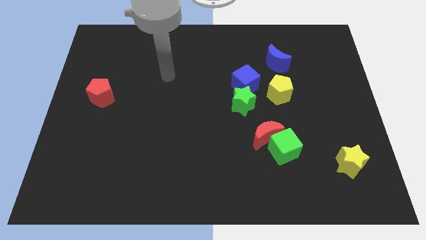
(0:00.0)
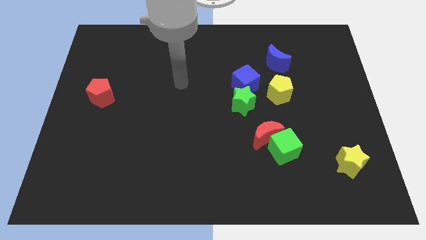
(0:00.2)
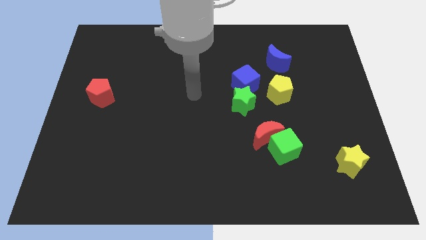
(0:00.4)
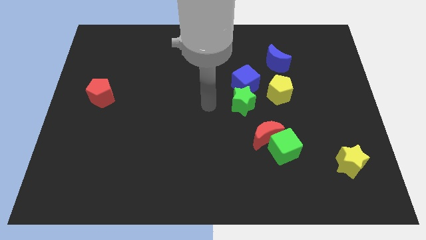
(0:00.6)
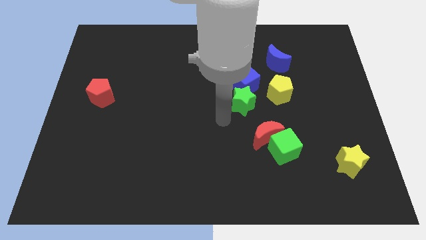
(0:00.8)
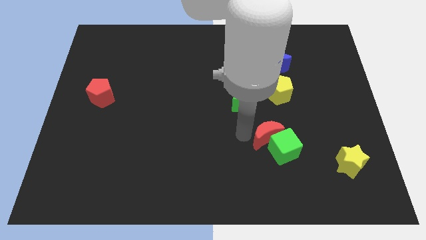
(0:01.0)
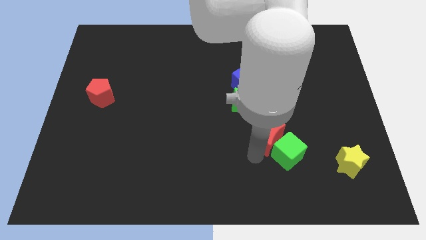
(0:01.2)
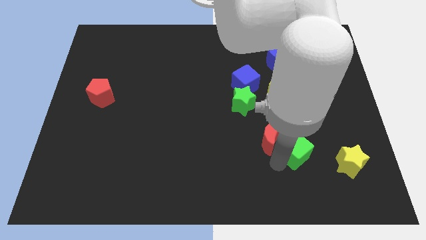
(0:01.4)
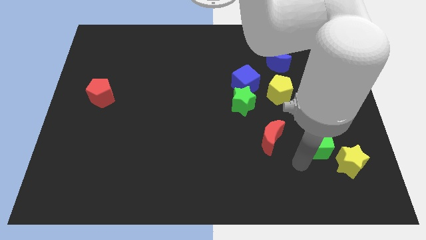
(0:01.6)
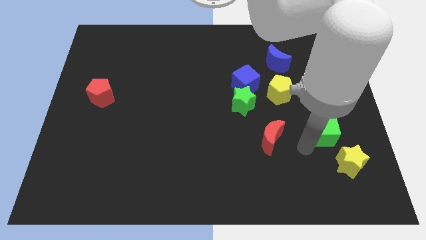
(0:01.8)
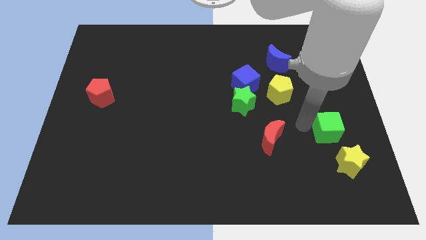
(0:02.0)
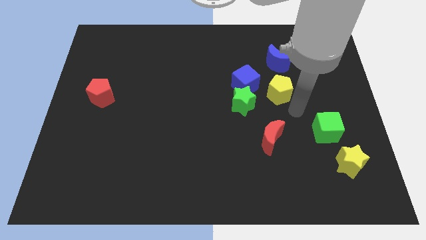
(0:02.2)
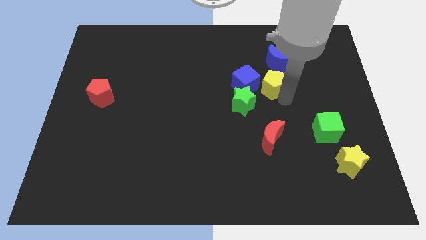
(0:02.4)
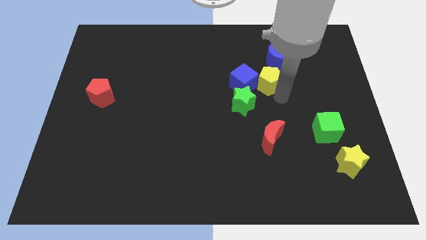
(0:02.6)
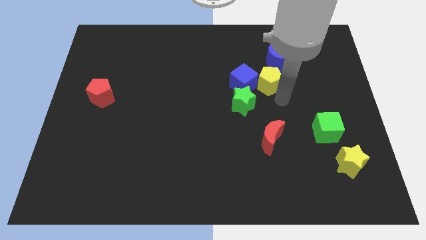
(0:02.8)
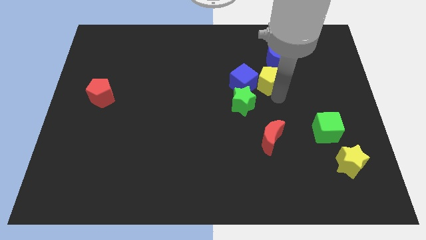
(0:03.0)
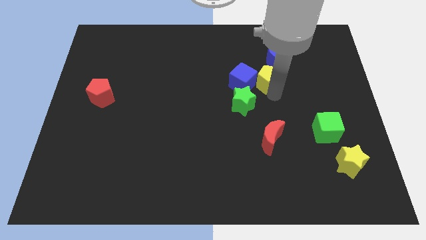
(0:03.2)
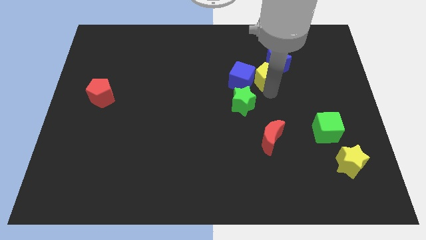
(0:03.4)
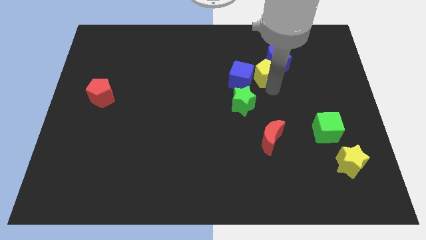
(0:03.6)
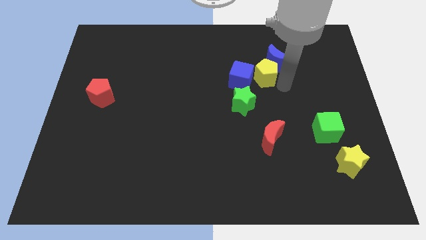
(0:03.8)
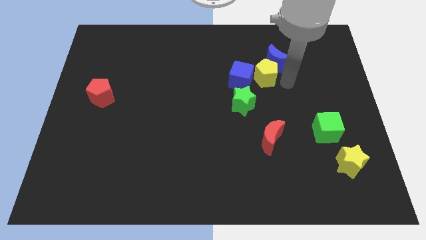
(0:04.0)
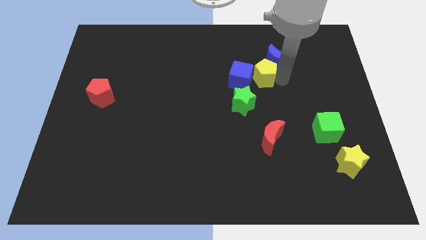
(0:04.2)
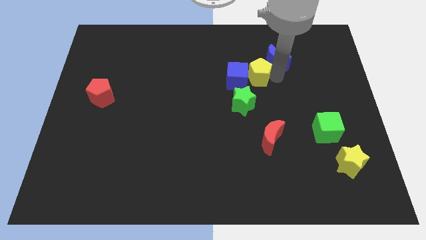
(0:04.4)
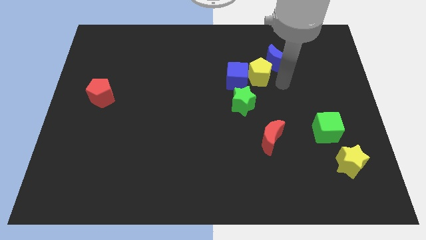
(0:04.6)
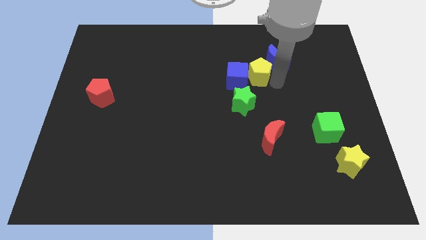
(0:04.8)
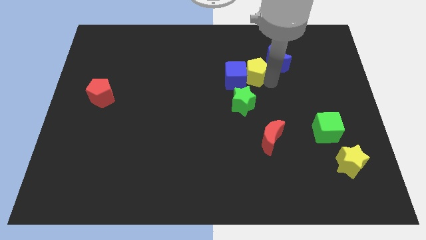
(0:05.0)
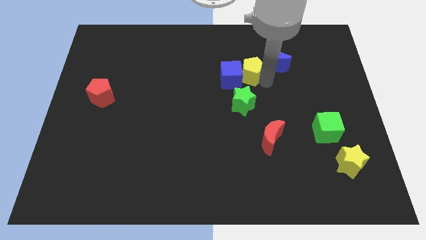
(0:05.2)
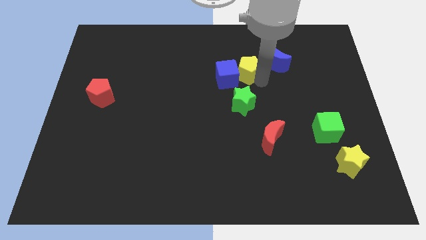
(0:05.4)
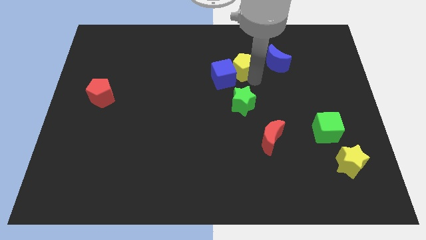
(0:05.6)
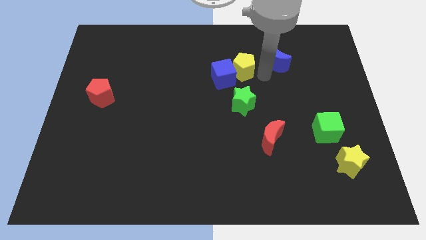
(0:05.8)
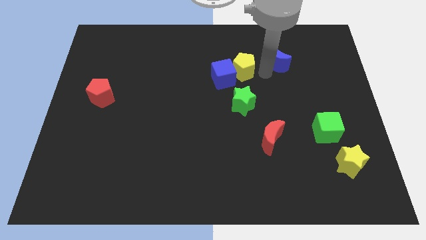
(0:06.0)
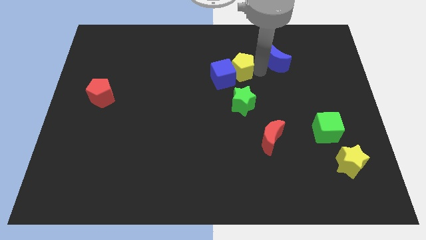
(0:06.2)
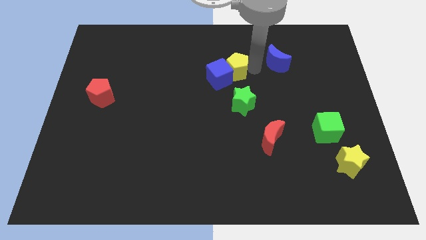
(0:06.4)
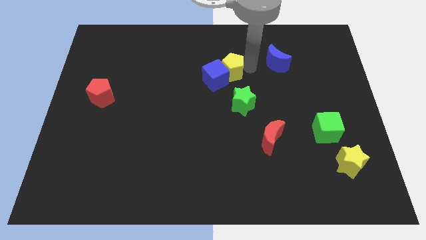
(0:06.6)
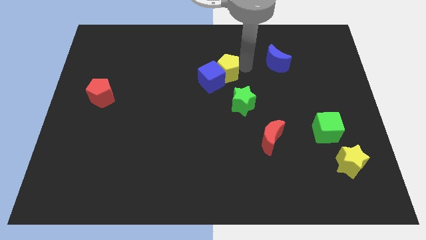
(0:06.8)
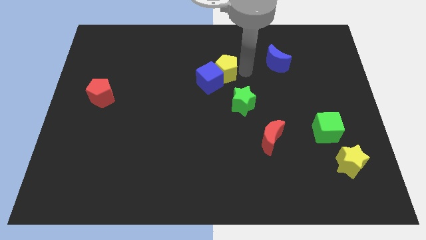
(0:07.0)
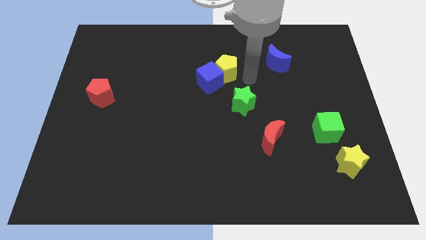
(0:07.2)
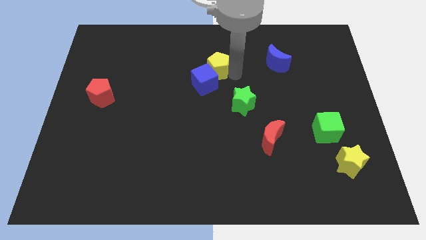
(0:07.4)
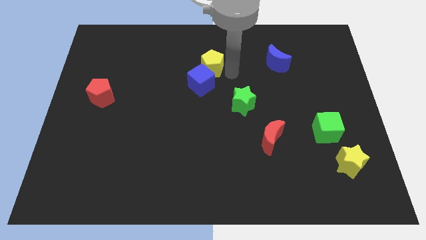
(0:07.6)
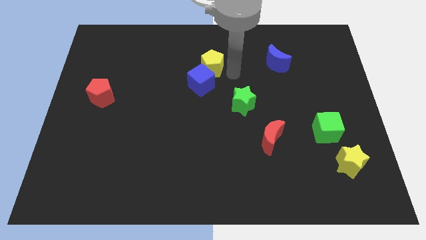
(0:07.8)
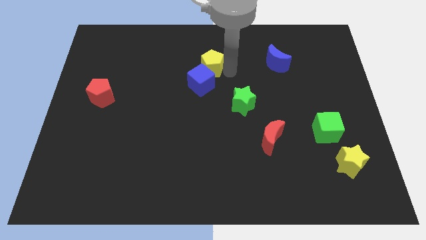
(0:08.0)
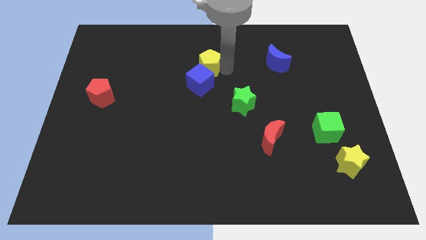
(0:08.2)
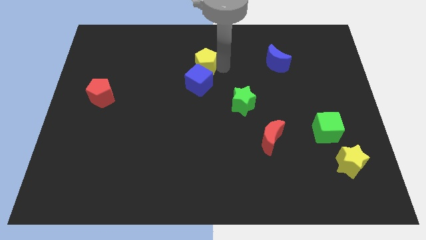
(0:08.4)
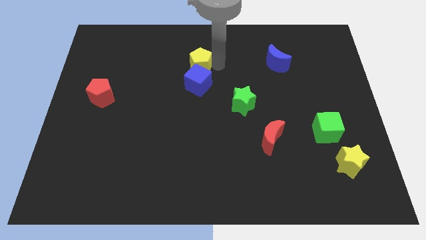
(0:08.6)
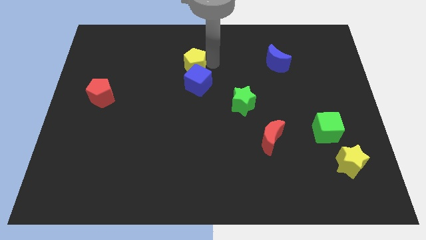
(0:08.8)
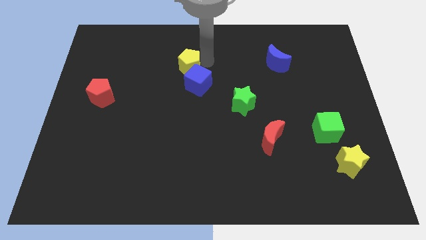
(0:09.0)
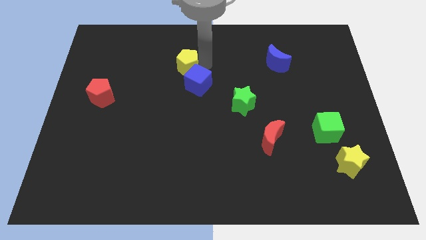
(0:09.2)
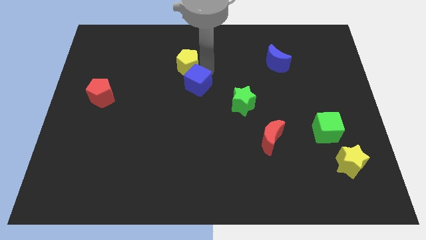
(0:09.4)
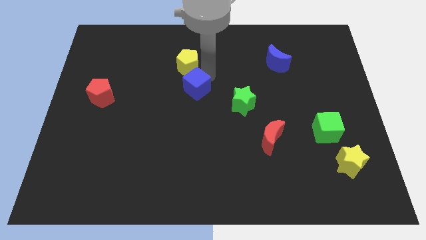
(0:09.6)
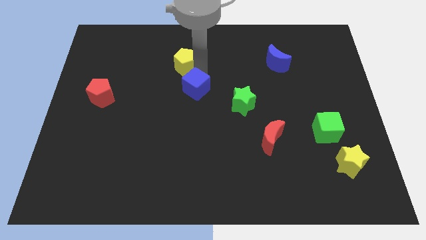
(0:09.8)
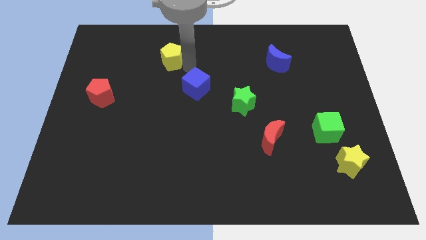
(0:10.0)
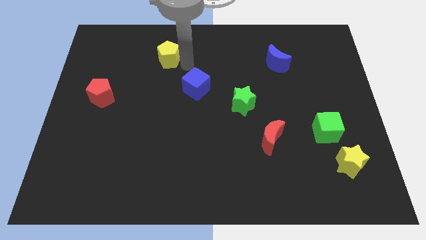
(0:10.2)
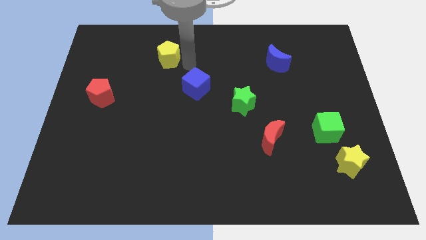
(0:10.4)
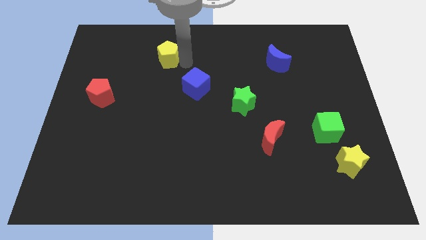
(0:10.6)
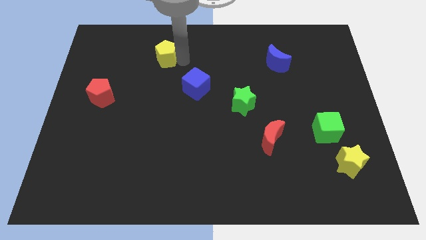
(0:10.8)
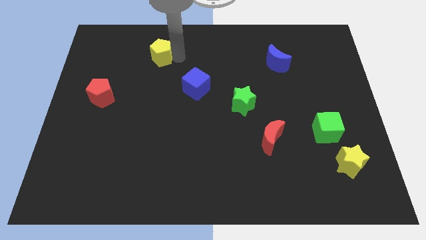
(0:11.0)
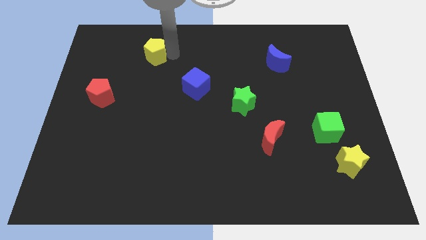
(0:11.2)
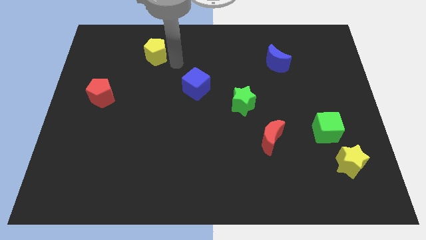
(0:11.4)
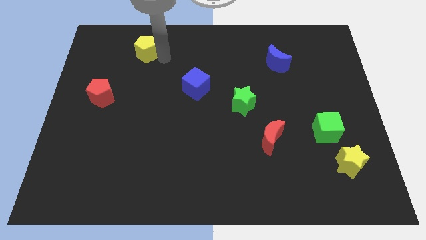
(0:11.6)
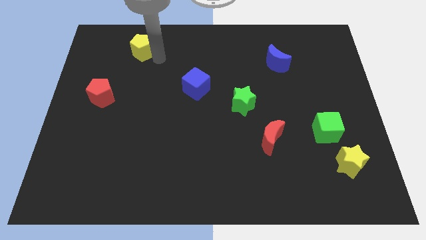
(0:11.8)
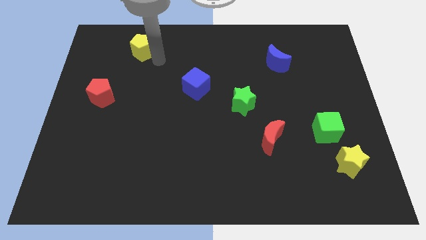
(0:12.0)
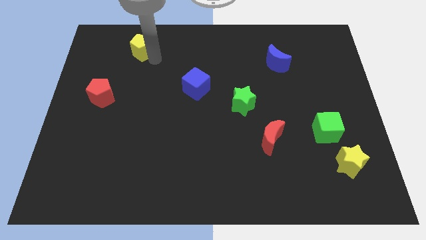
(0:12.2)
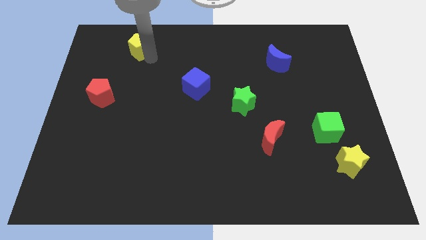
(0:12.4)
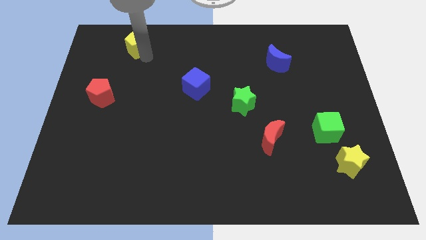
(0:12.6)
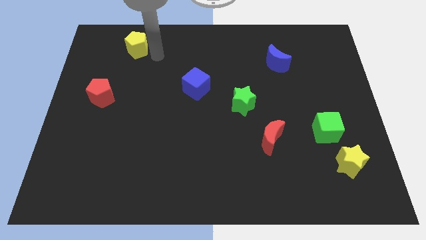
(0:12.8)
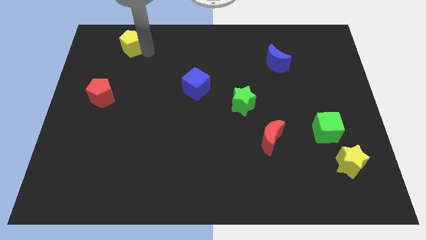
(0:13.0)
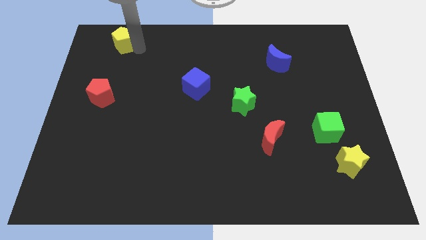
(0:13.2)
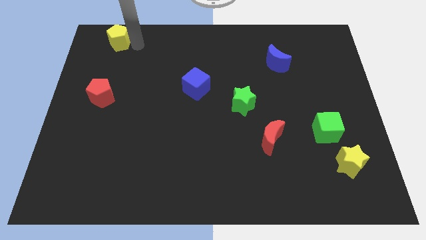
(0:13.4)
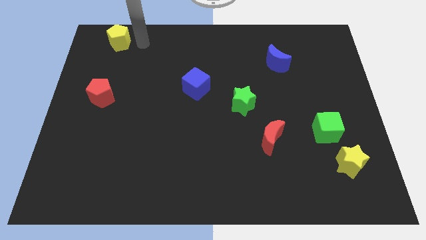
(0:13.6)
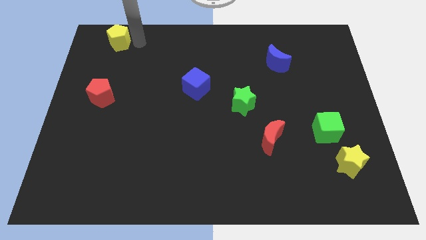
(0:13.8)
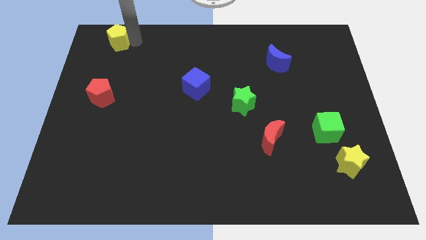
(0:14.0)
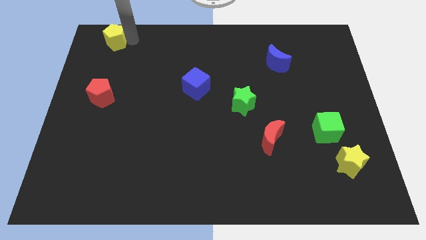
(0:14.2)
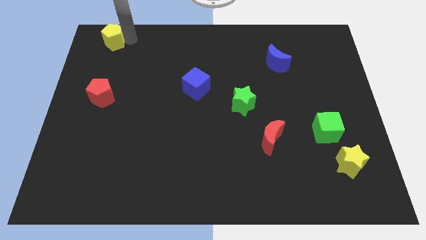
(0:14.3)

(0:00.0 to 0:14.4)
put the yellow pentagon to the upper left corner
